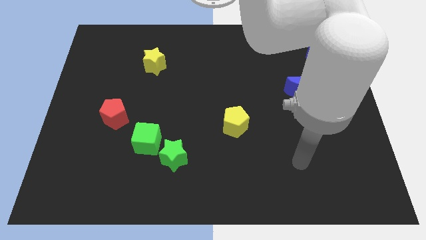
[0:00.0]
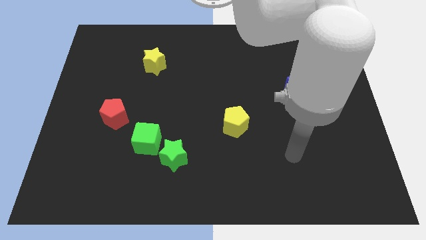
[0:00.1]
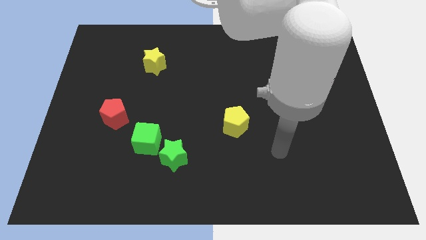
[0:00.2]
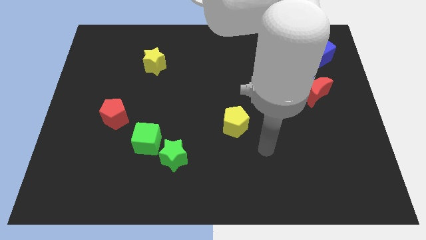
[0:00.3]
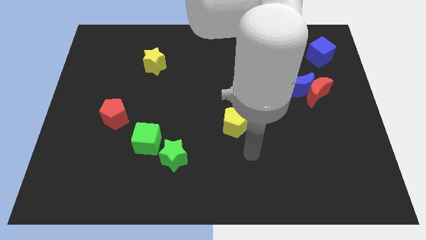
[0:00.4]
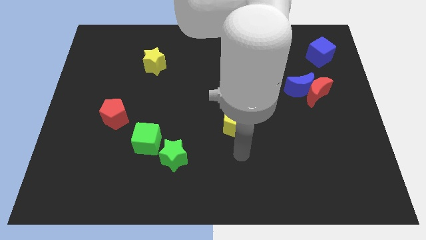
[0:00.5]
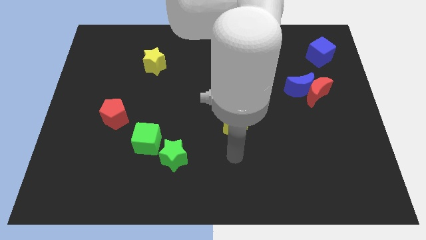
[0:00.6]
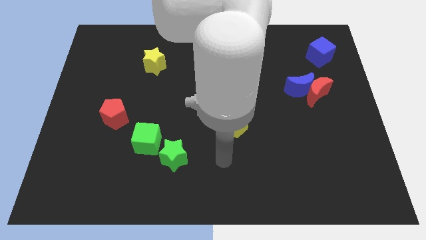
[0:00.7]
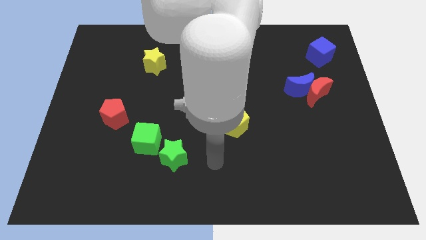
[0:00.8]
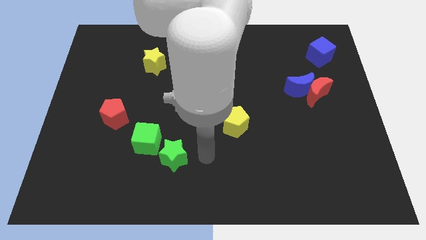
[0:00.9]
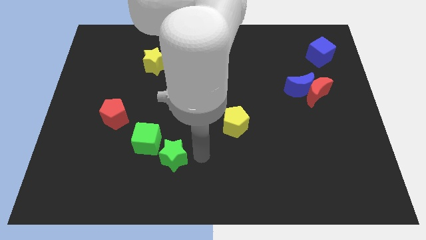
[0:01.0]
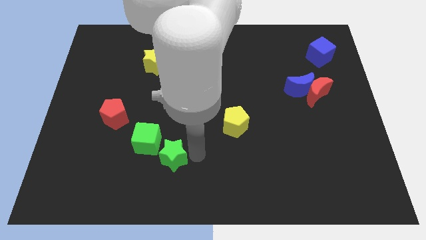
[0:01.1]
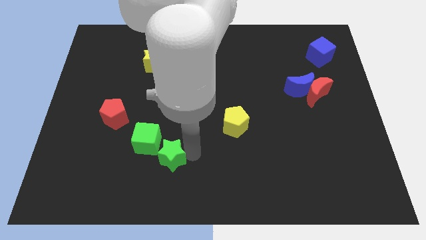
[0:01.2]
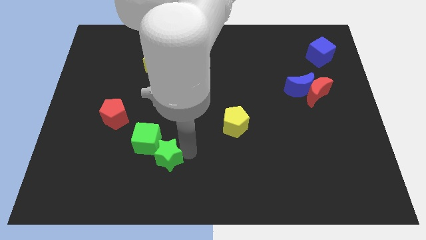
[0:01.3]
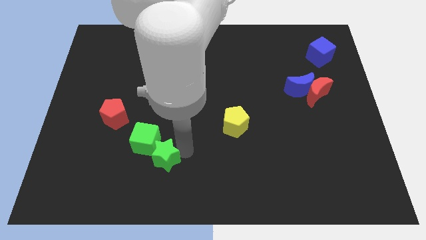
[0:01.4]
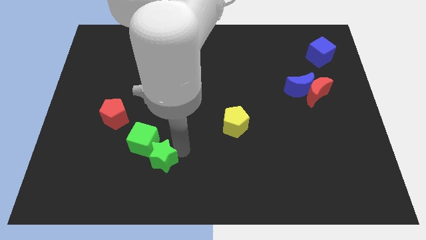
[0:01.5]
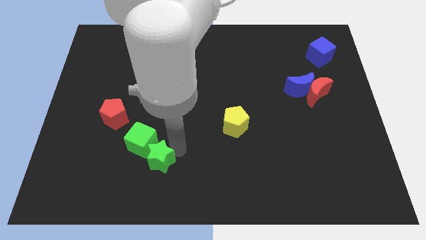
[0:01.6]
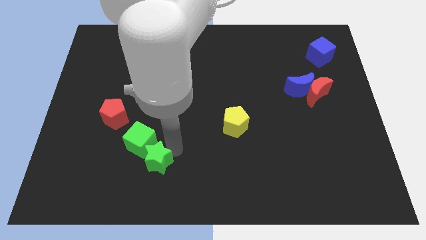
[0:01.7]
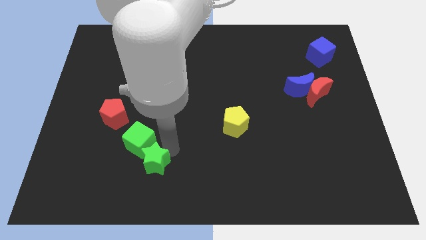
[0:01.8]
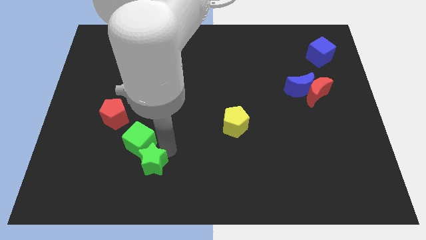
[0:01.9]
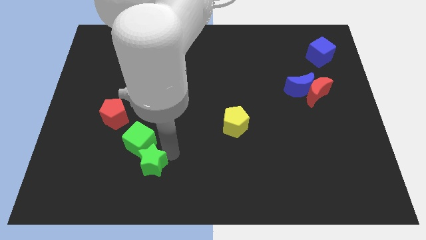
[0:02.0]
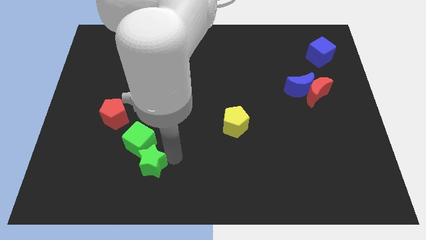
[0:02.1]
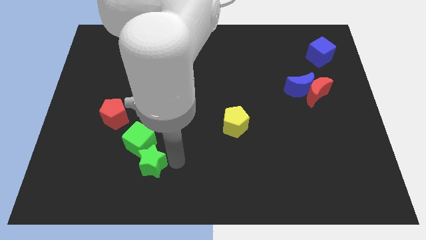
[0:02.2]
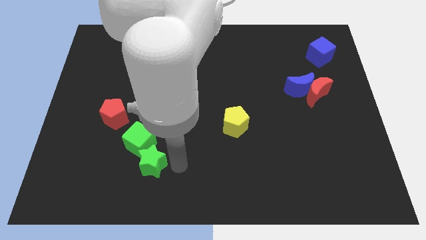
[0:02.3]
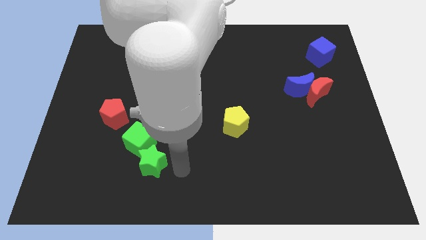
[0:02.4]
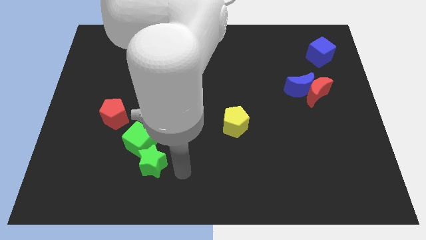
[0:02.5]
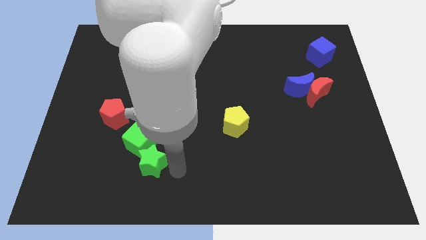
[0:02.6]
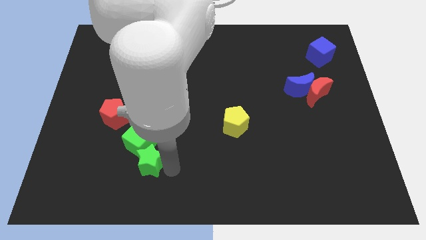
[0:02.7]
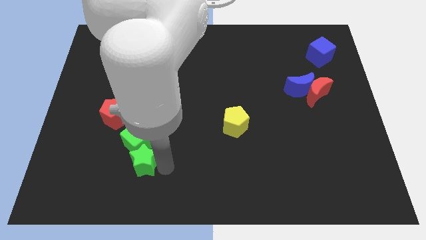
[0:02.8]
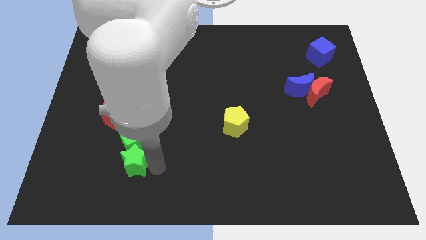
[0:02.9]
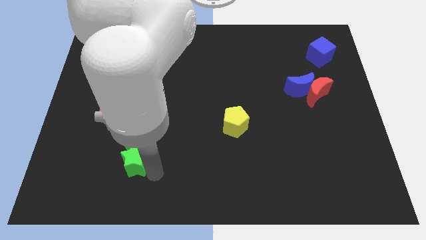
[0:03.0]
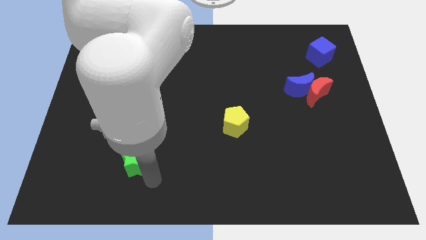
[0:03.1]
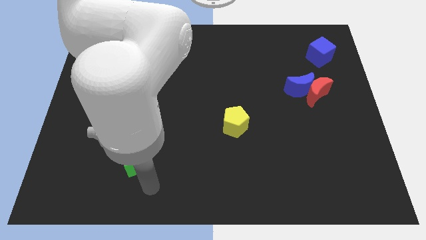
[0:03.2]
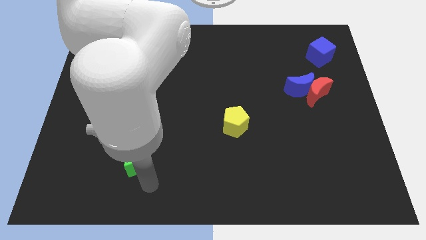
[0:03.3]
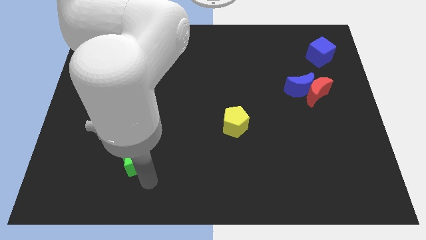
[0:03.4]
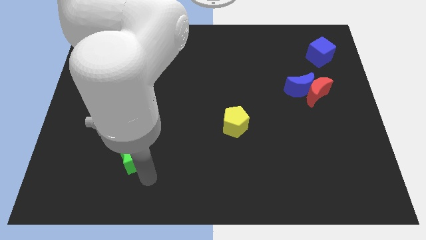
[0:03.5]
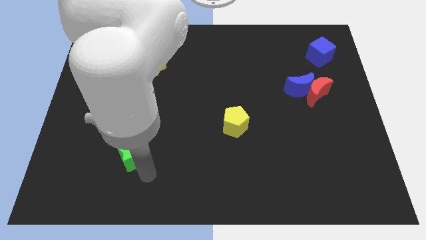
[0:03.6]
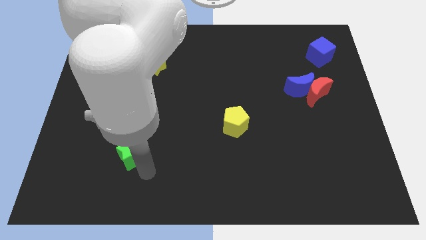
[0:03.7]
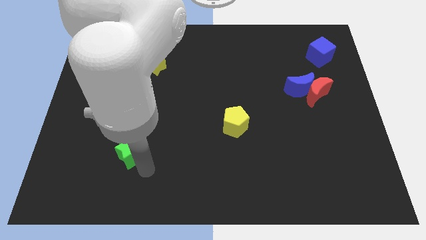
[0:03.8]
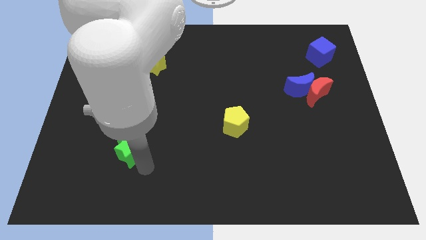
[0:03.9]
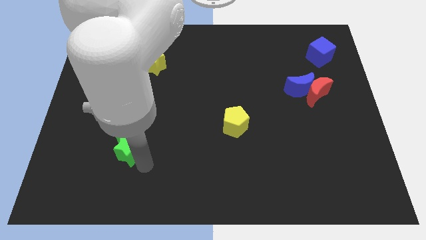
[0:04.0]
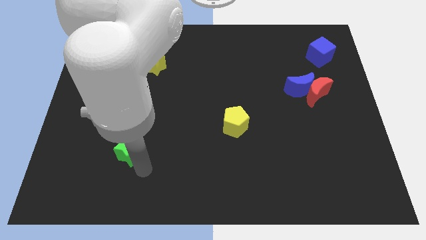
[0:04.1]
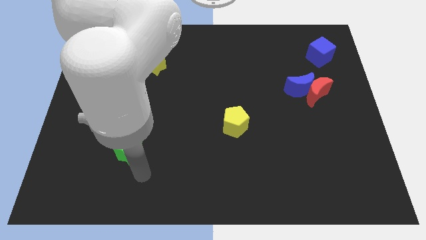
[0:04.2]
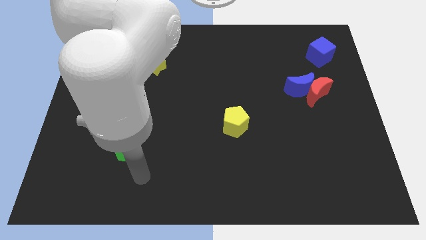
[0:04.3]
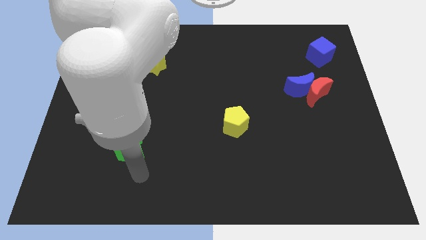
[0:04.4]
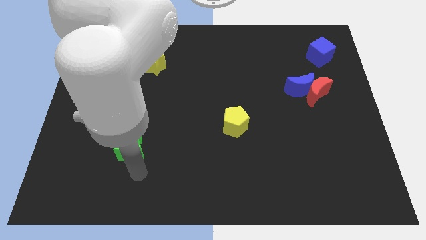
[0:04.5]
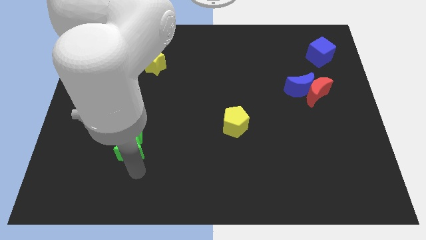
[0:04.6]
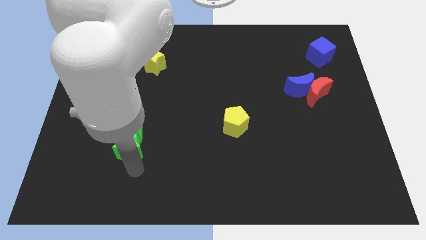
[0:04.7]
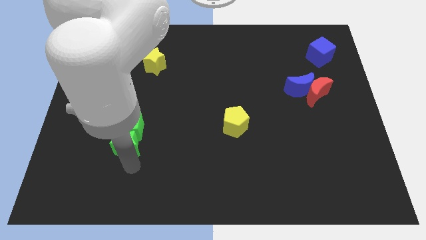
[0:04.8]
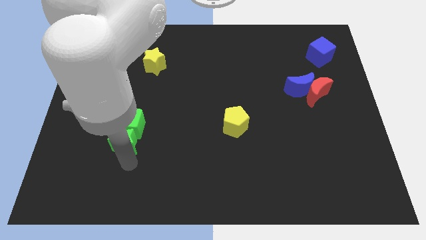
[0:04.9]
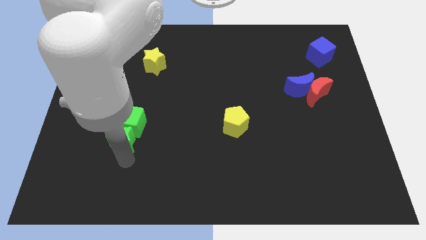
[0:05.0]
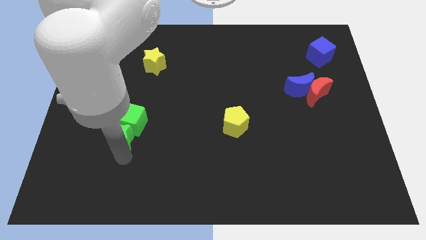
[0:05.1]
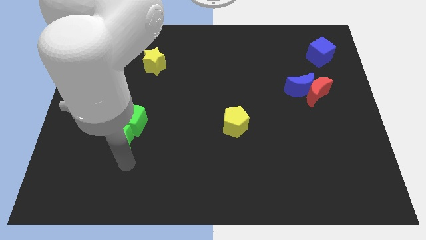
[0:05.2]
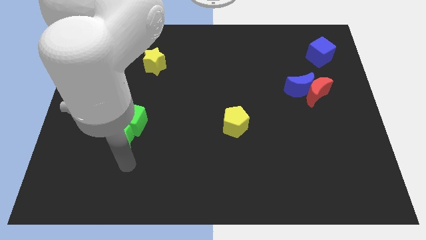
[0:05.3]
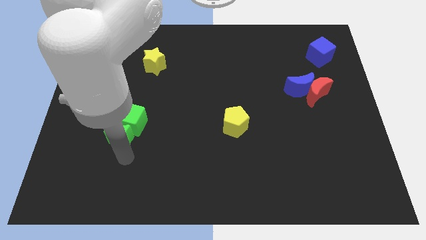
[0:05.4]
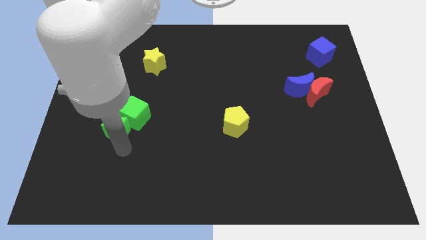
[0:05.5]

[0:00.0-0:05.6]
put the green star to the red pentagon

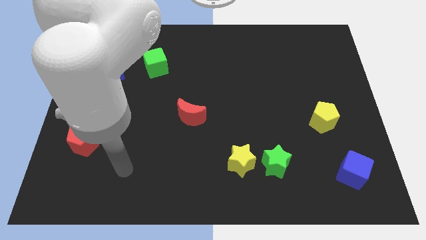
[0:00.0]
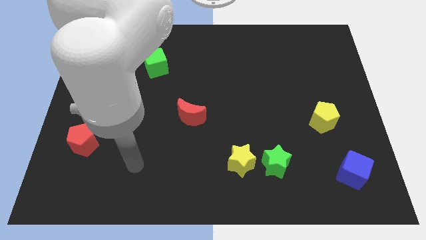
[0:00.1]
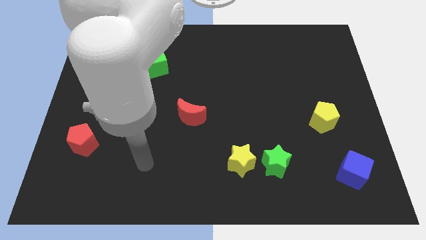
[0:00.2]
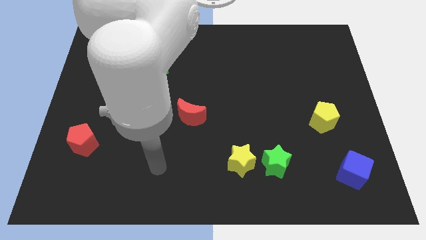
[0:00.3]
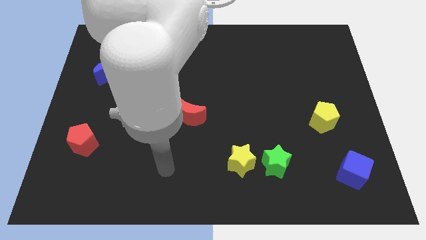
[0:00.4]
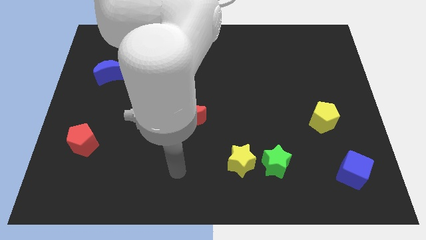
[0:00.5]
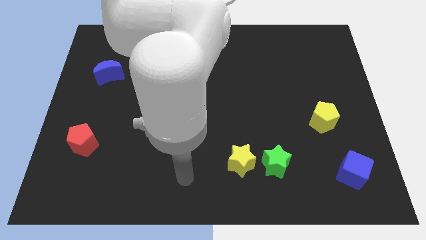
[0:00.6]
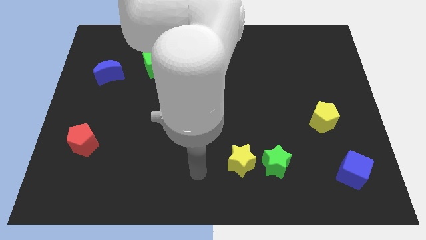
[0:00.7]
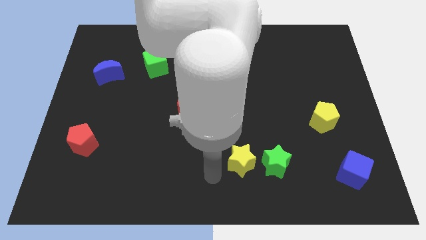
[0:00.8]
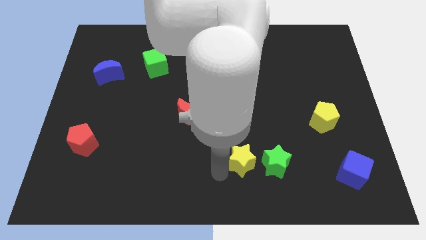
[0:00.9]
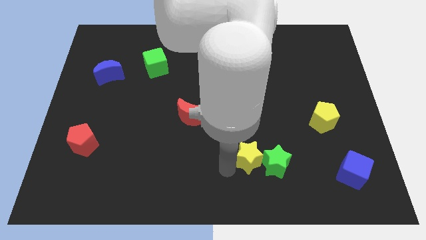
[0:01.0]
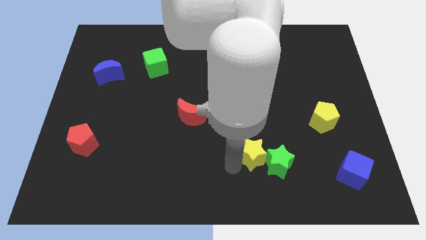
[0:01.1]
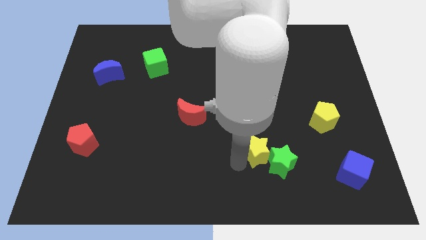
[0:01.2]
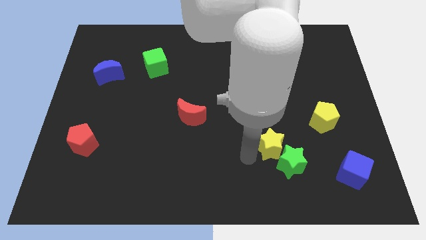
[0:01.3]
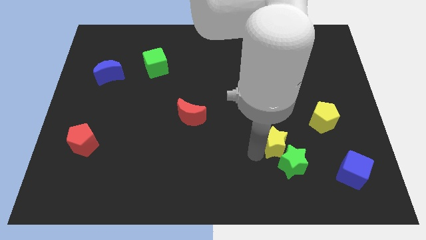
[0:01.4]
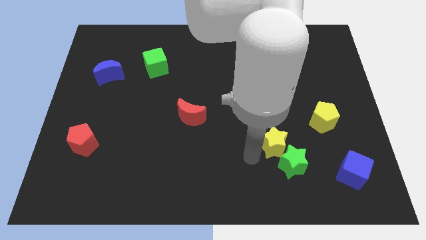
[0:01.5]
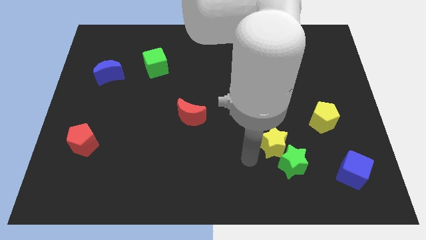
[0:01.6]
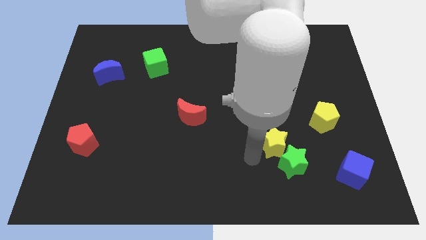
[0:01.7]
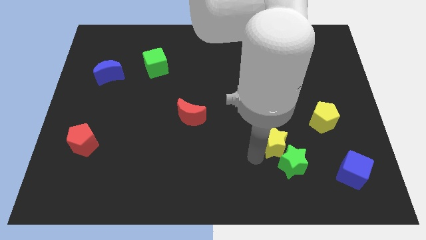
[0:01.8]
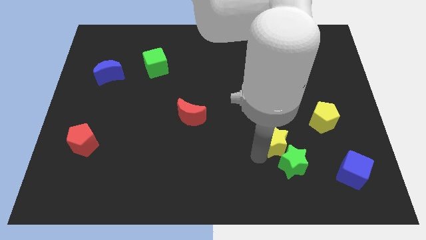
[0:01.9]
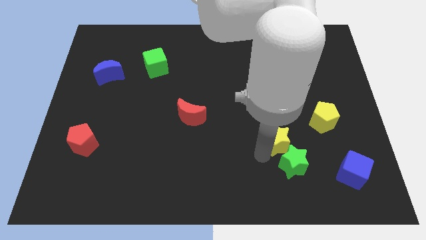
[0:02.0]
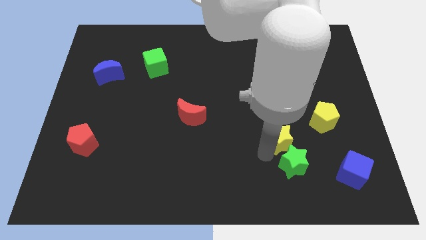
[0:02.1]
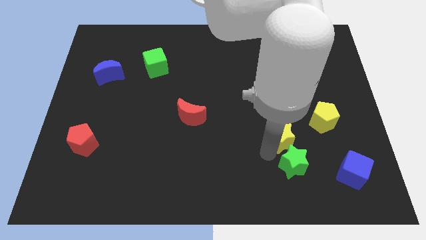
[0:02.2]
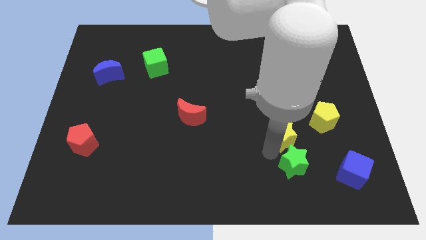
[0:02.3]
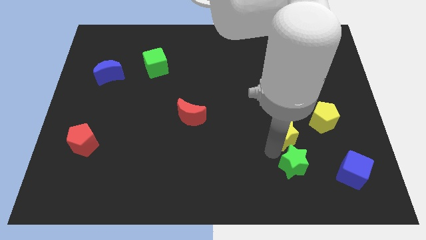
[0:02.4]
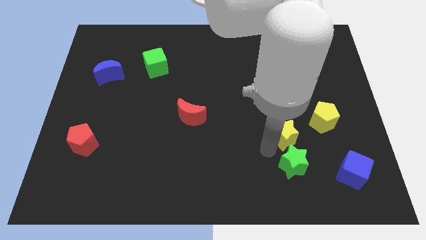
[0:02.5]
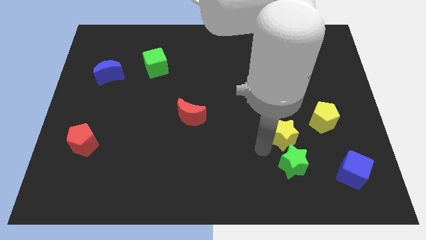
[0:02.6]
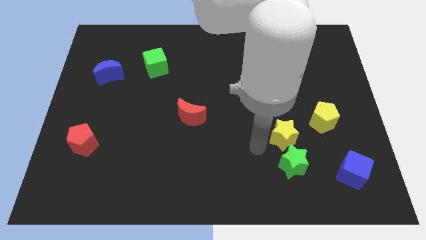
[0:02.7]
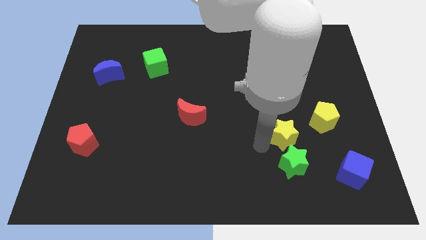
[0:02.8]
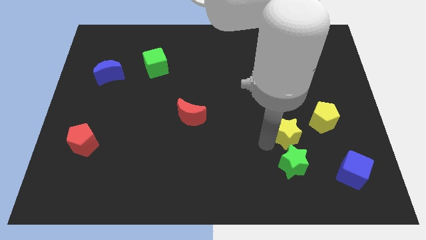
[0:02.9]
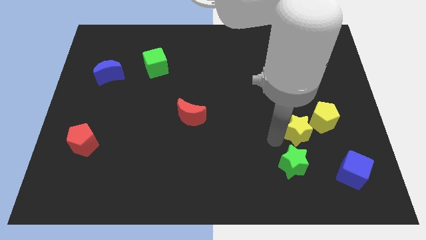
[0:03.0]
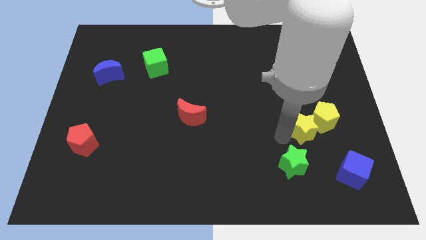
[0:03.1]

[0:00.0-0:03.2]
slide the yellow star towards the yellow pentagon
